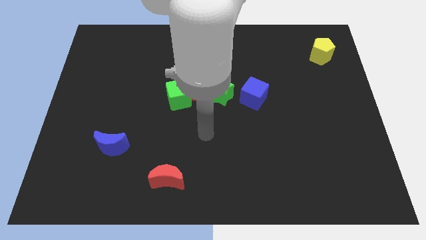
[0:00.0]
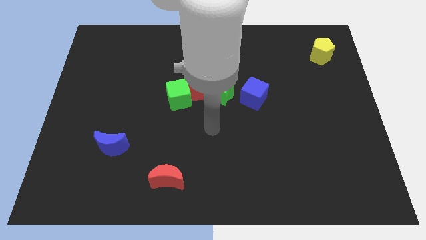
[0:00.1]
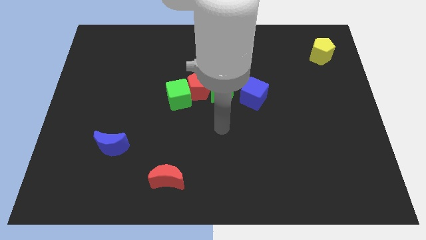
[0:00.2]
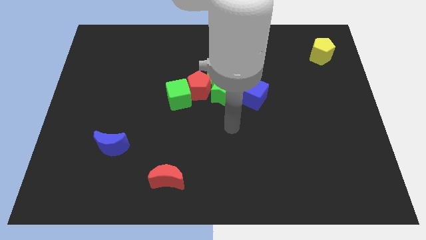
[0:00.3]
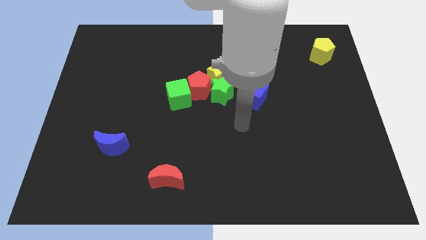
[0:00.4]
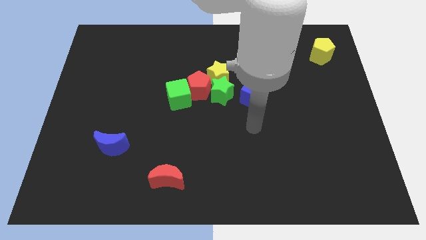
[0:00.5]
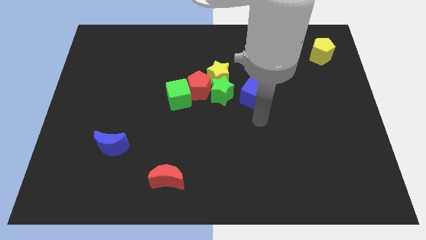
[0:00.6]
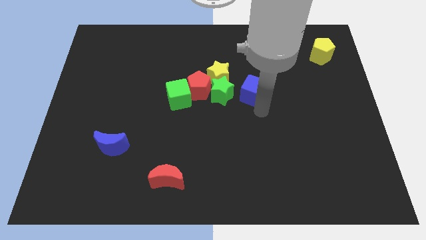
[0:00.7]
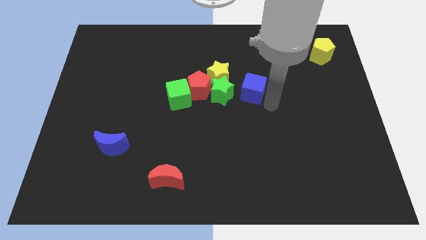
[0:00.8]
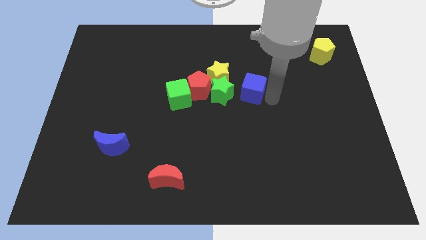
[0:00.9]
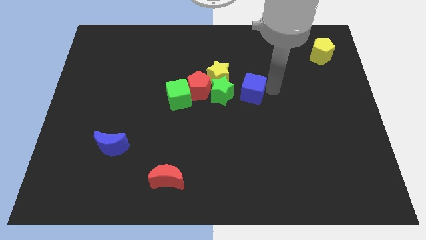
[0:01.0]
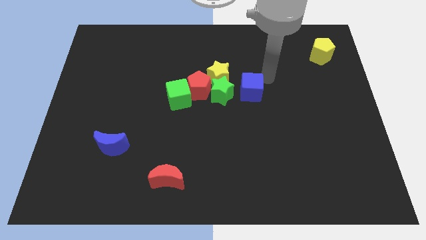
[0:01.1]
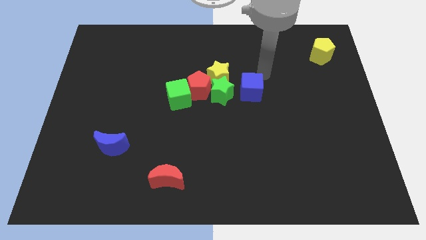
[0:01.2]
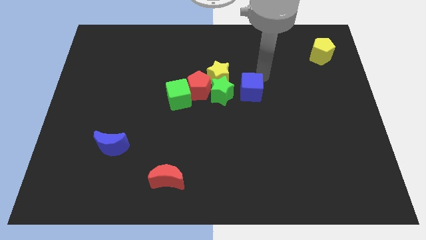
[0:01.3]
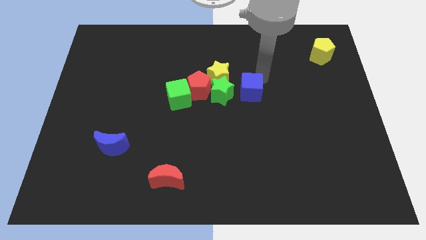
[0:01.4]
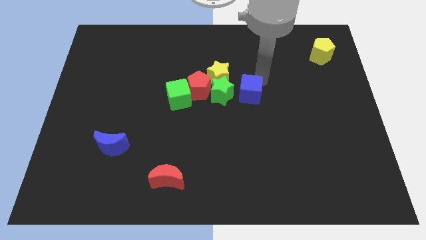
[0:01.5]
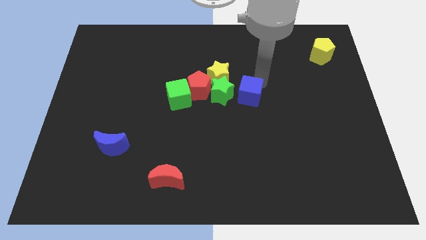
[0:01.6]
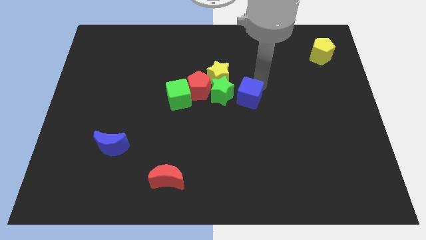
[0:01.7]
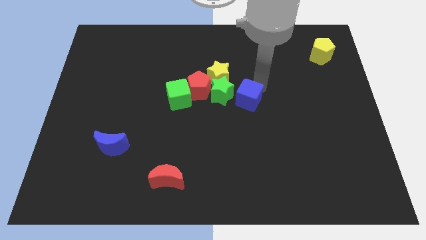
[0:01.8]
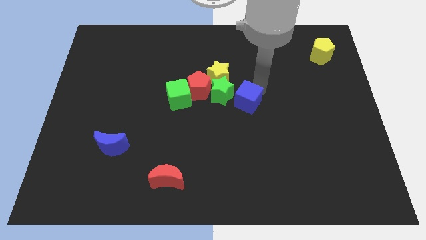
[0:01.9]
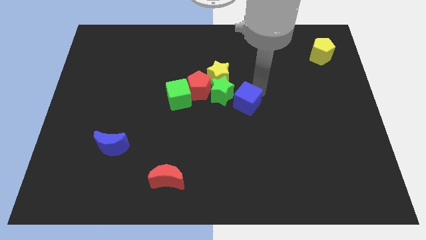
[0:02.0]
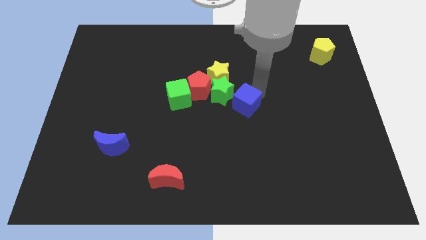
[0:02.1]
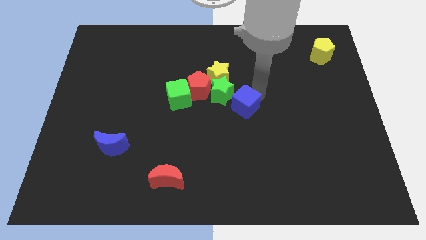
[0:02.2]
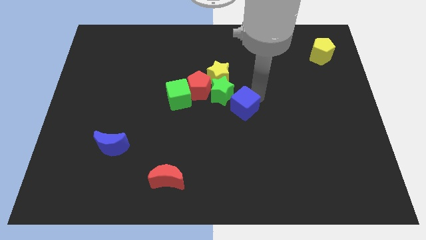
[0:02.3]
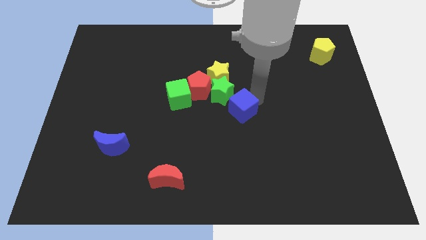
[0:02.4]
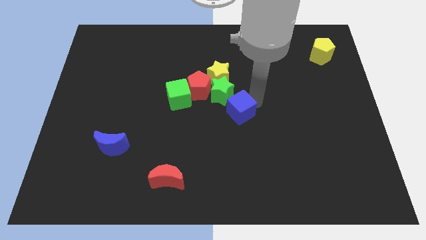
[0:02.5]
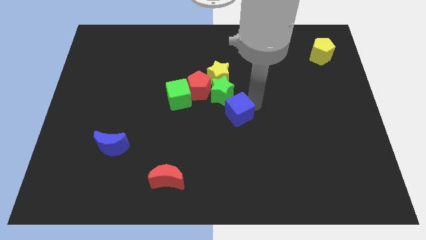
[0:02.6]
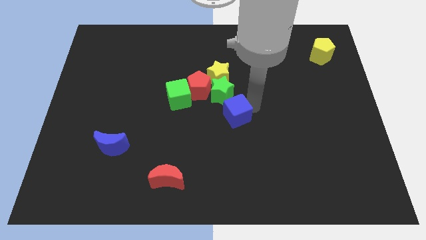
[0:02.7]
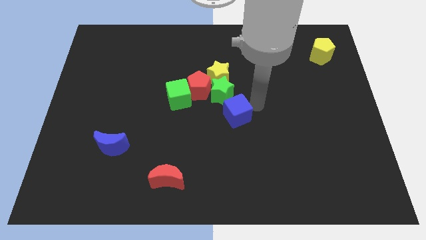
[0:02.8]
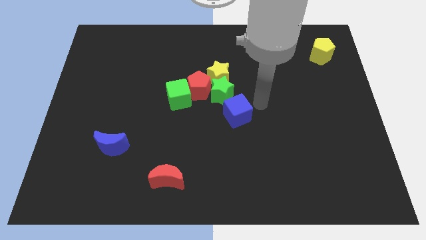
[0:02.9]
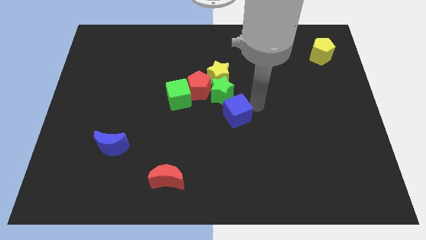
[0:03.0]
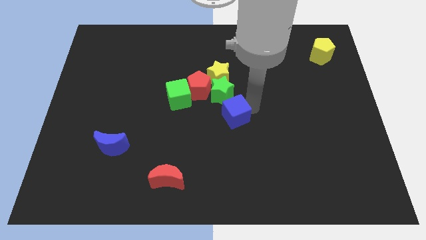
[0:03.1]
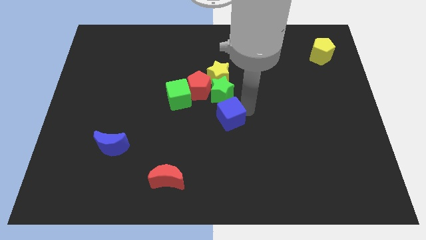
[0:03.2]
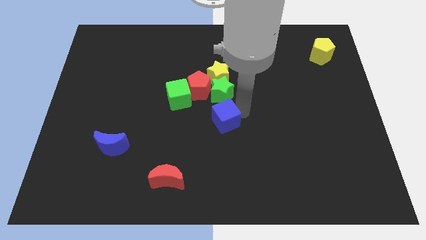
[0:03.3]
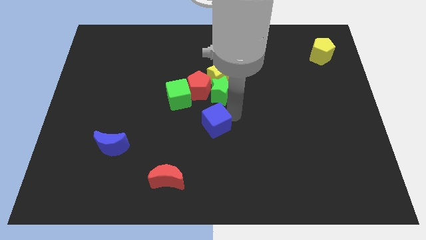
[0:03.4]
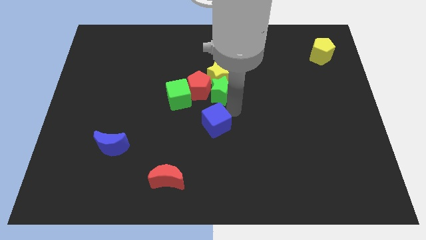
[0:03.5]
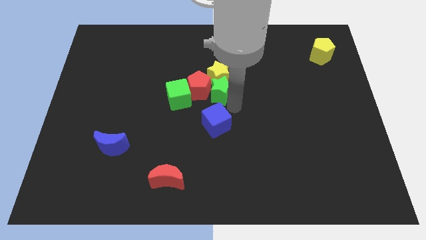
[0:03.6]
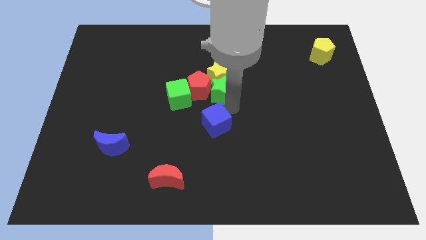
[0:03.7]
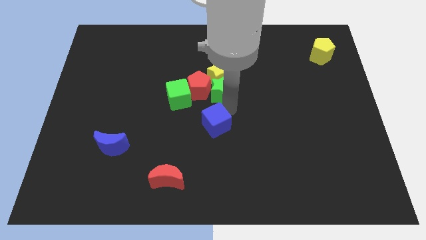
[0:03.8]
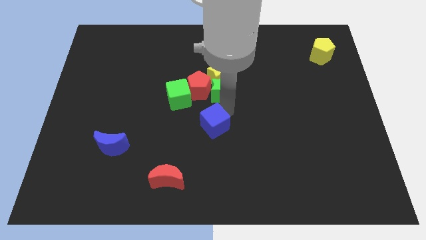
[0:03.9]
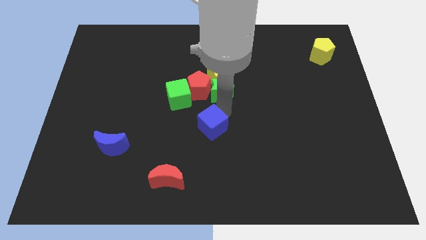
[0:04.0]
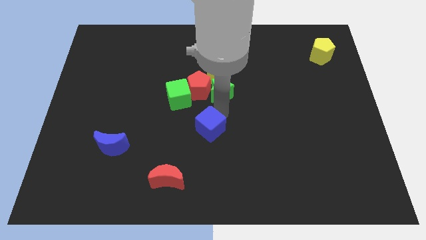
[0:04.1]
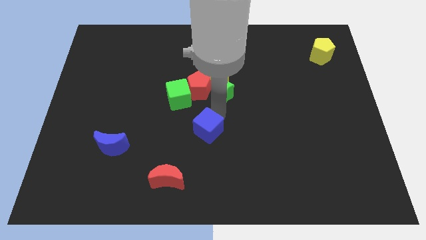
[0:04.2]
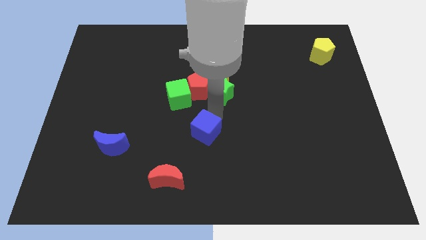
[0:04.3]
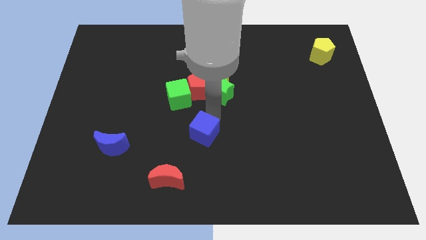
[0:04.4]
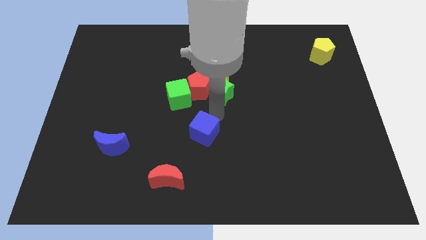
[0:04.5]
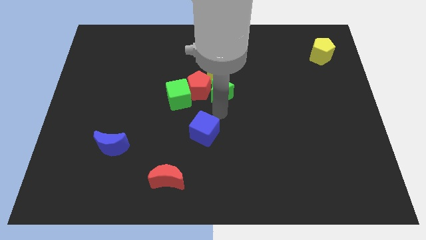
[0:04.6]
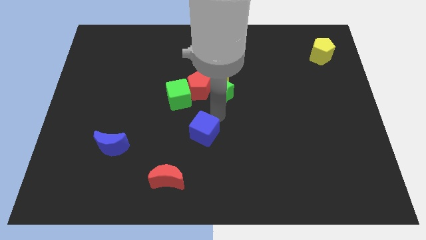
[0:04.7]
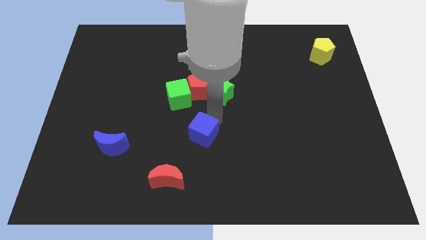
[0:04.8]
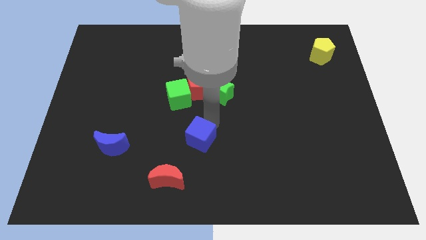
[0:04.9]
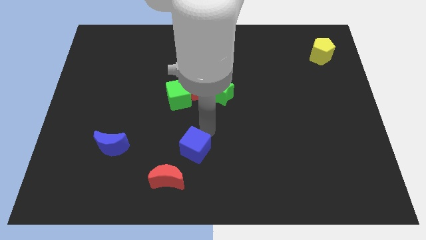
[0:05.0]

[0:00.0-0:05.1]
move the blue cube downwards and left

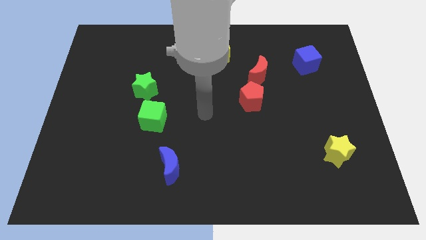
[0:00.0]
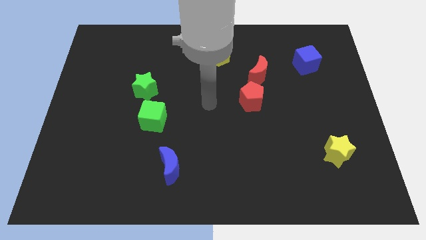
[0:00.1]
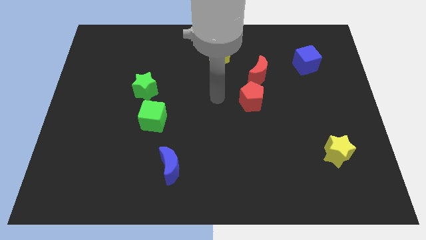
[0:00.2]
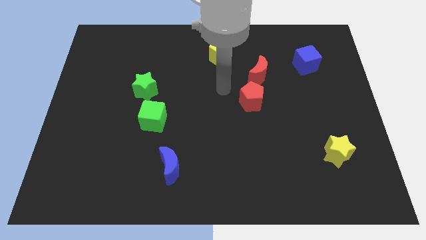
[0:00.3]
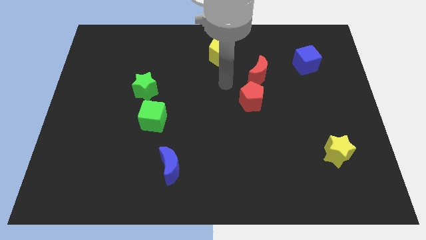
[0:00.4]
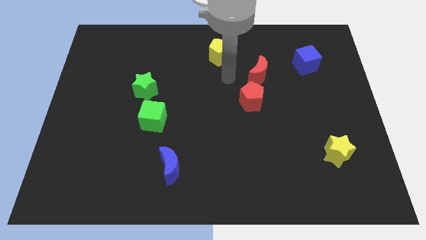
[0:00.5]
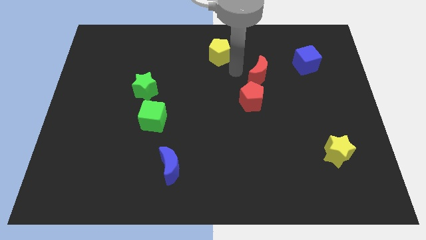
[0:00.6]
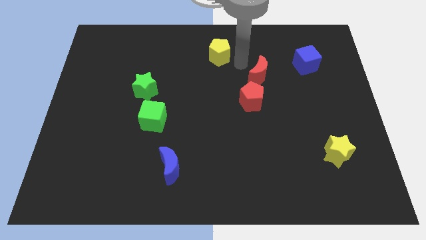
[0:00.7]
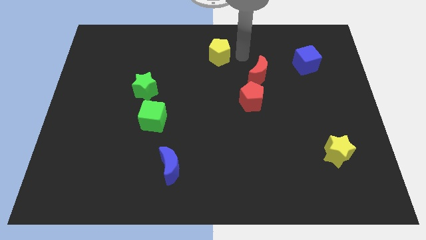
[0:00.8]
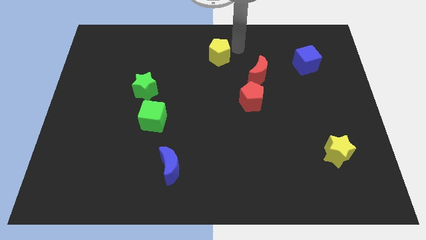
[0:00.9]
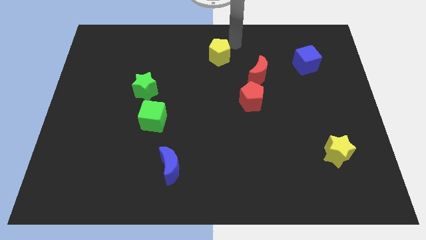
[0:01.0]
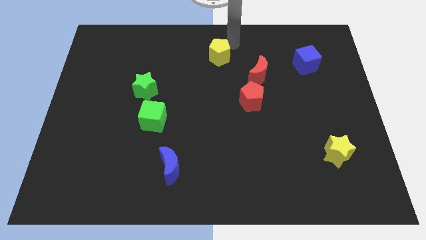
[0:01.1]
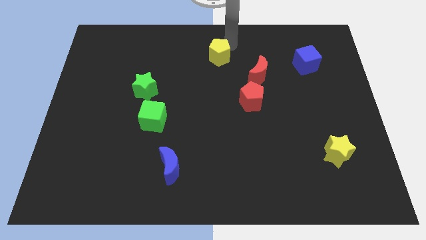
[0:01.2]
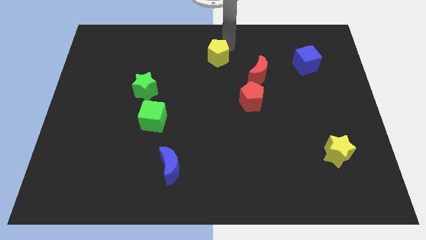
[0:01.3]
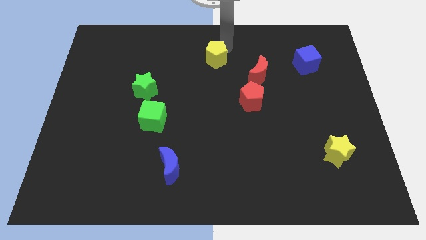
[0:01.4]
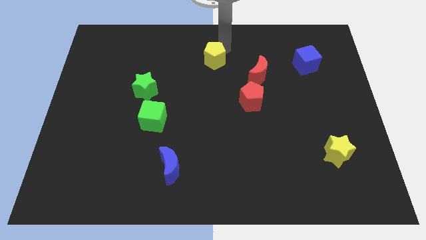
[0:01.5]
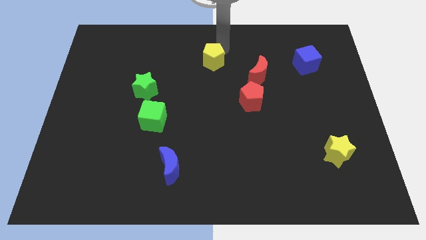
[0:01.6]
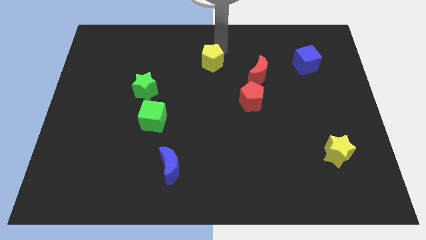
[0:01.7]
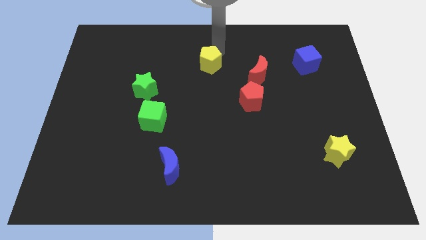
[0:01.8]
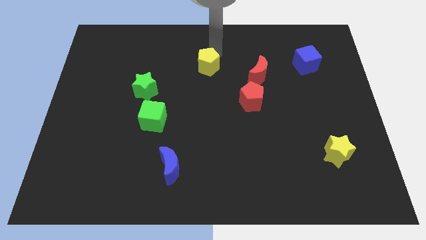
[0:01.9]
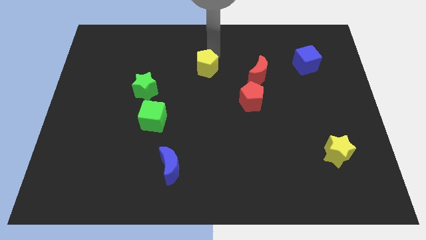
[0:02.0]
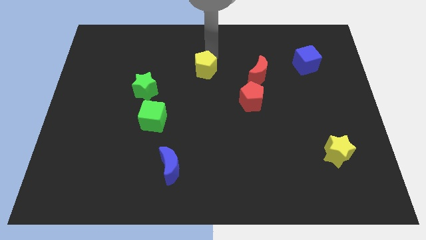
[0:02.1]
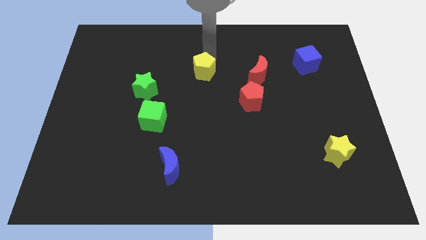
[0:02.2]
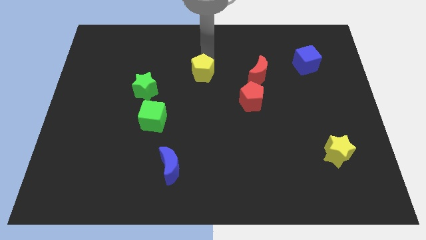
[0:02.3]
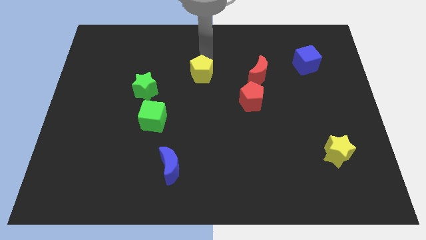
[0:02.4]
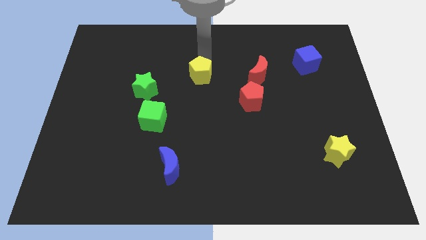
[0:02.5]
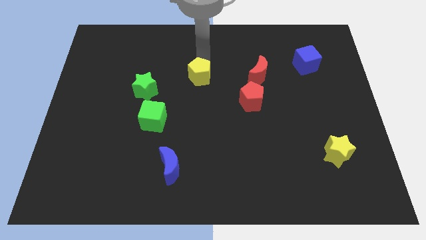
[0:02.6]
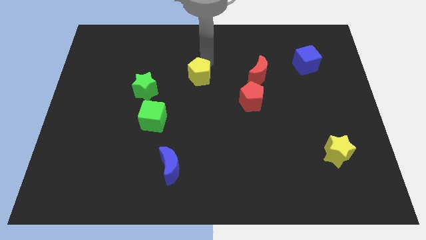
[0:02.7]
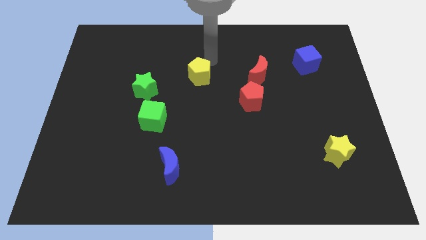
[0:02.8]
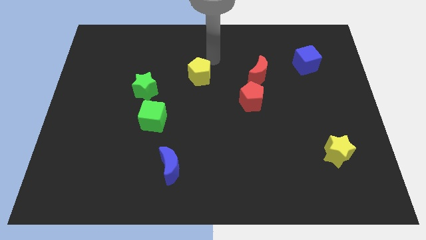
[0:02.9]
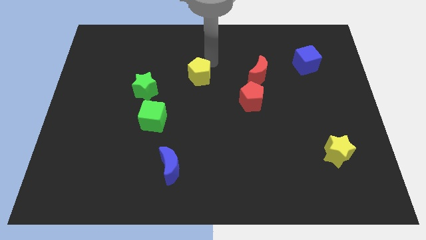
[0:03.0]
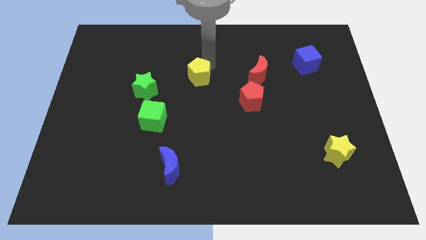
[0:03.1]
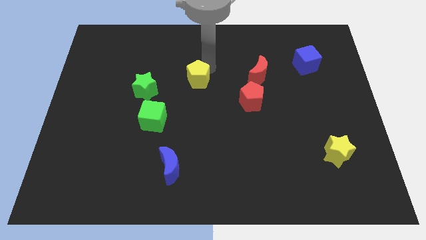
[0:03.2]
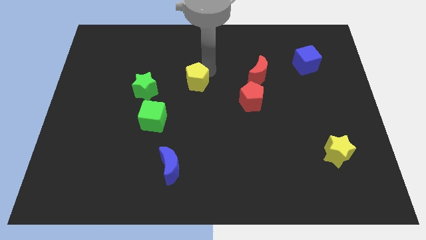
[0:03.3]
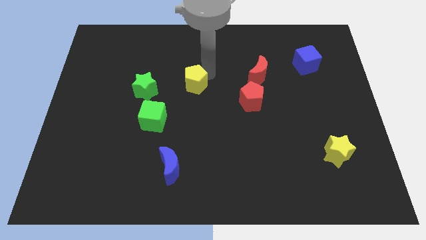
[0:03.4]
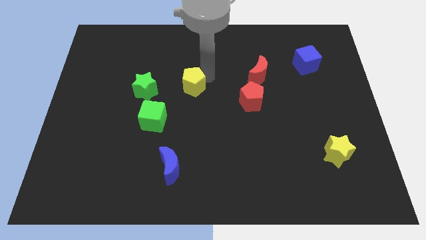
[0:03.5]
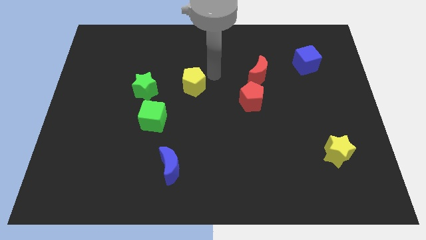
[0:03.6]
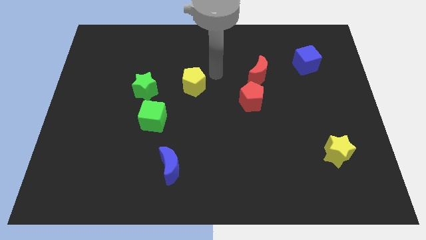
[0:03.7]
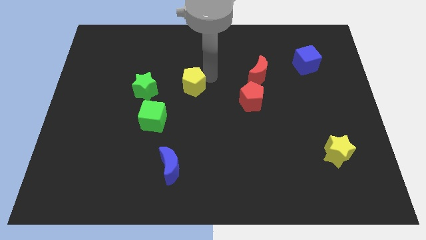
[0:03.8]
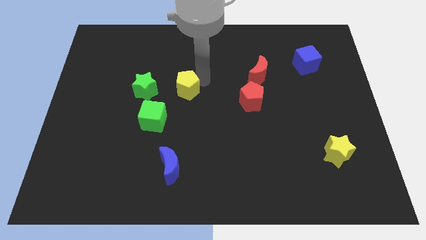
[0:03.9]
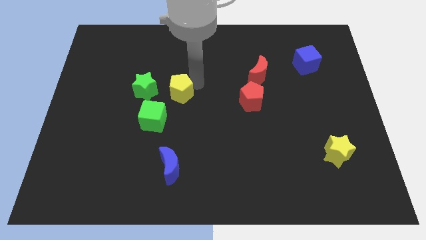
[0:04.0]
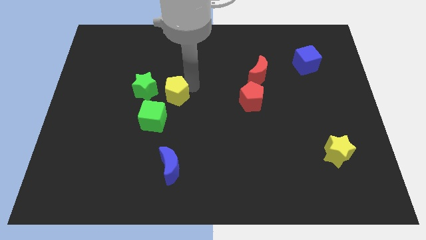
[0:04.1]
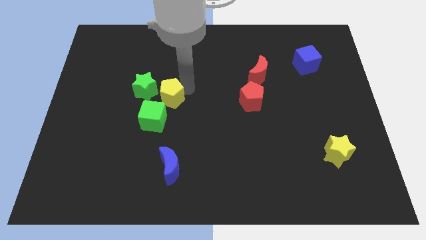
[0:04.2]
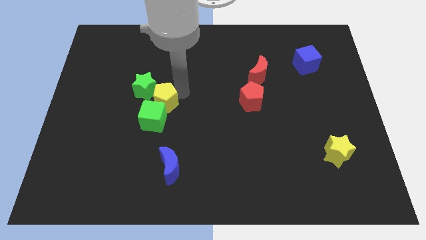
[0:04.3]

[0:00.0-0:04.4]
push the yellow pentagon diagonally down and left
